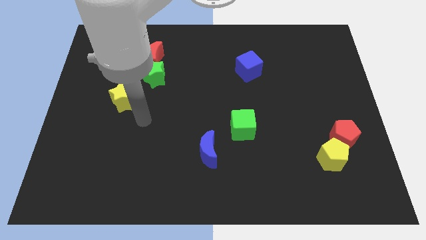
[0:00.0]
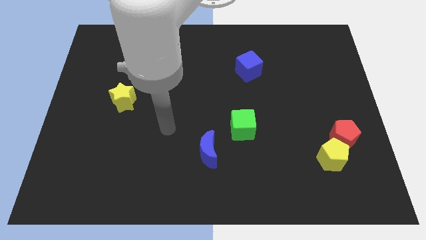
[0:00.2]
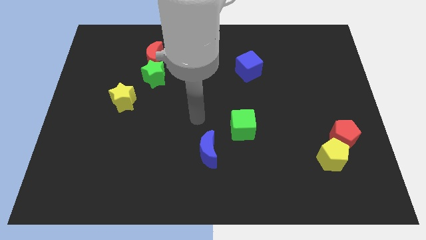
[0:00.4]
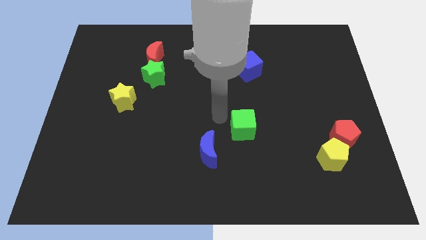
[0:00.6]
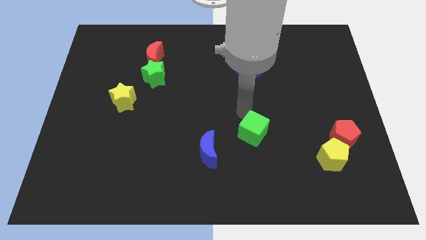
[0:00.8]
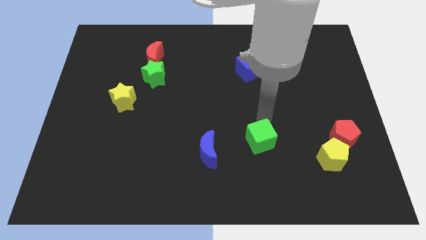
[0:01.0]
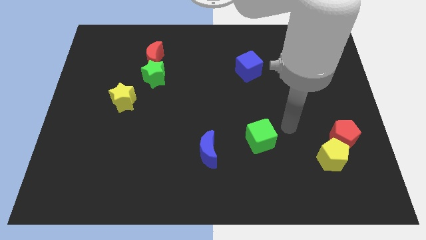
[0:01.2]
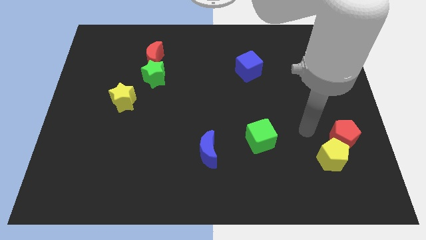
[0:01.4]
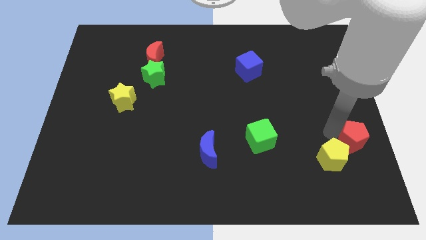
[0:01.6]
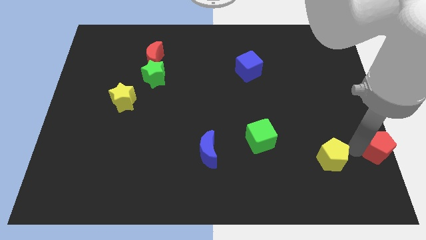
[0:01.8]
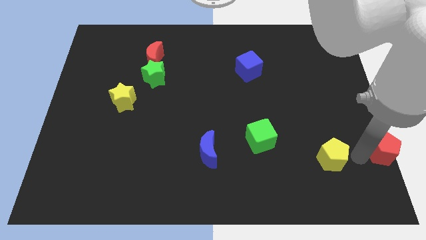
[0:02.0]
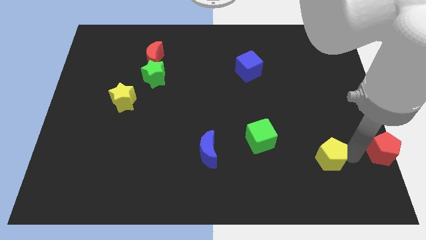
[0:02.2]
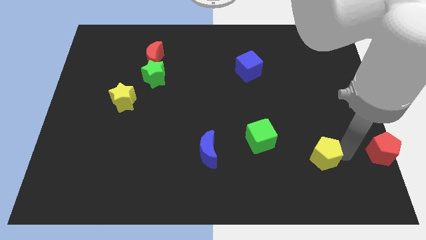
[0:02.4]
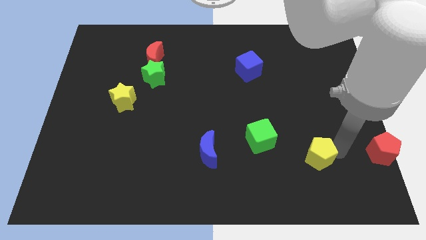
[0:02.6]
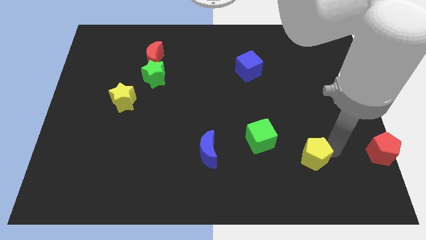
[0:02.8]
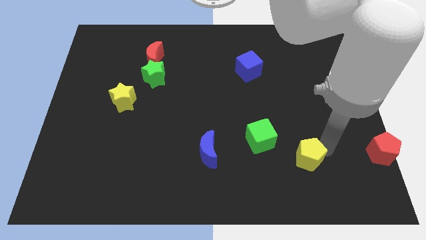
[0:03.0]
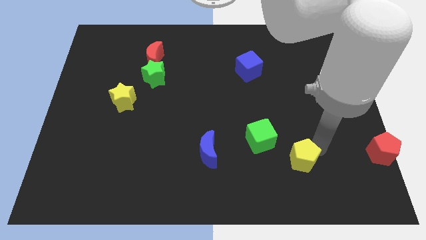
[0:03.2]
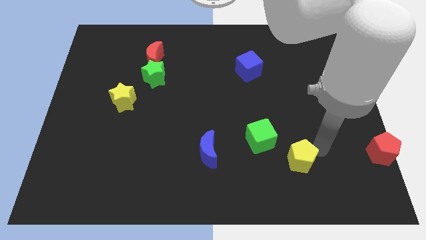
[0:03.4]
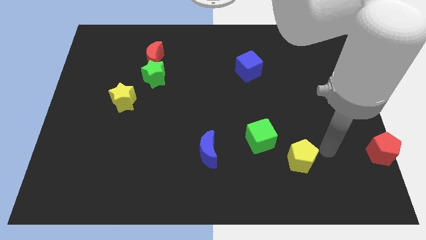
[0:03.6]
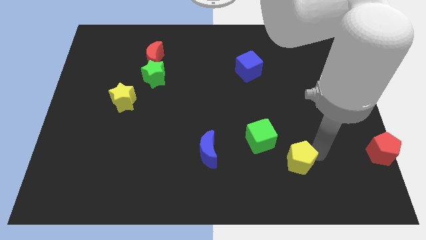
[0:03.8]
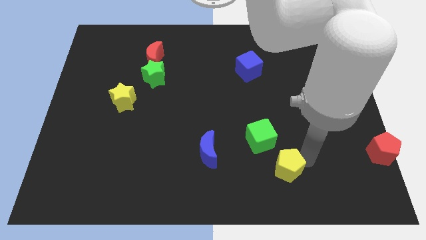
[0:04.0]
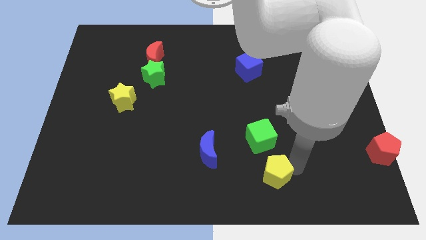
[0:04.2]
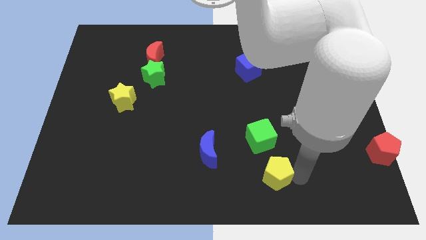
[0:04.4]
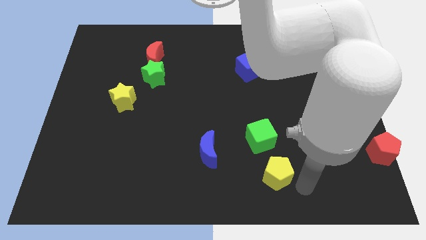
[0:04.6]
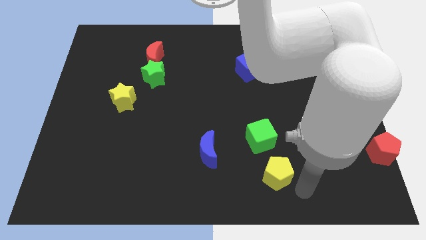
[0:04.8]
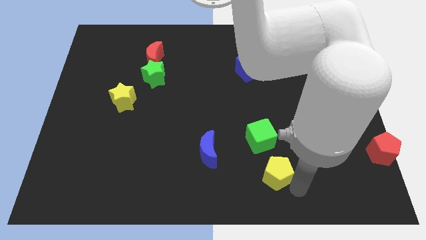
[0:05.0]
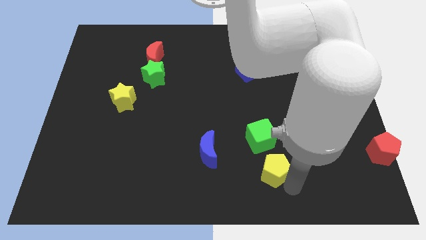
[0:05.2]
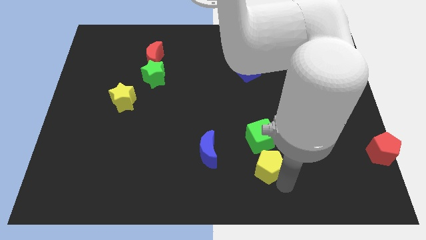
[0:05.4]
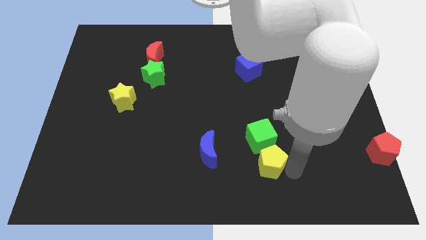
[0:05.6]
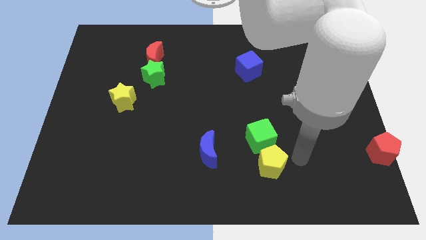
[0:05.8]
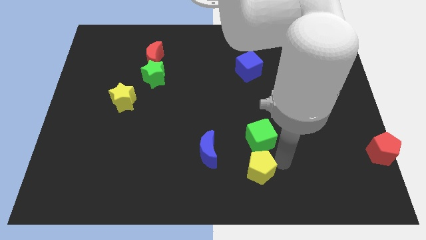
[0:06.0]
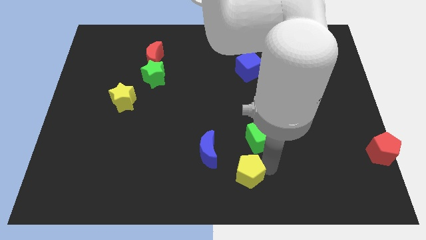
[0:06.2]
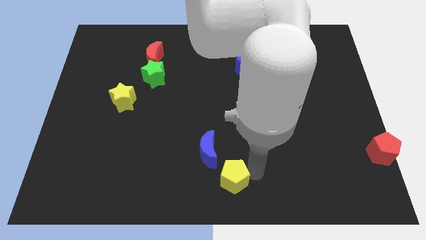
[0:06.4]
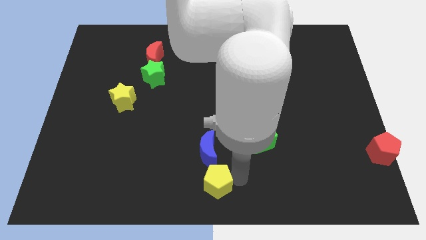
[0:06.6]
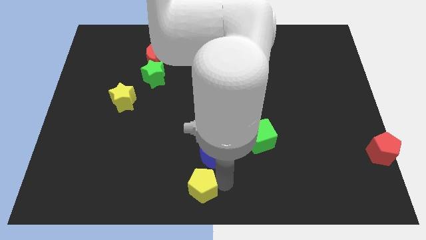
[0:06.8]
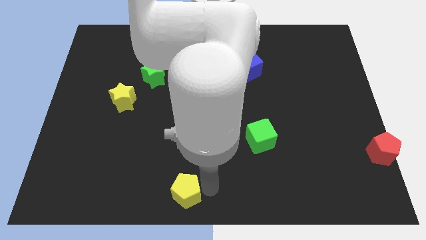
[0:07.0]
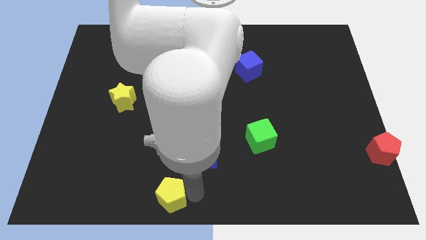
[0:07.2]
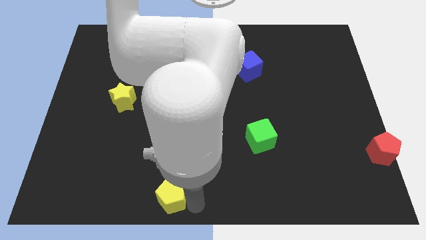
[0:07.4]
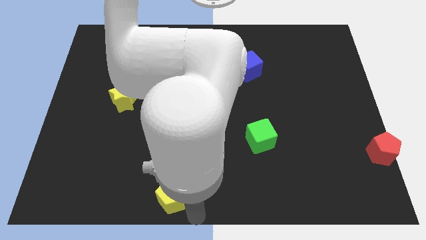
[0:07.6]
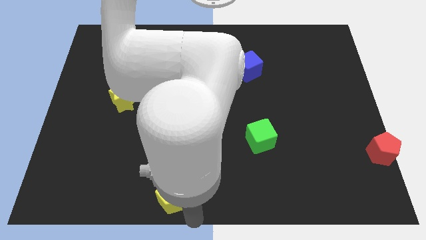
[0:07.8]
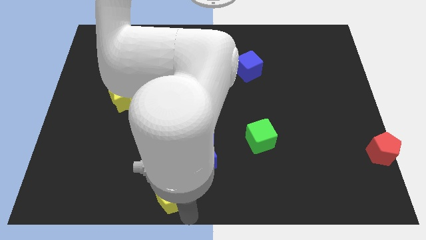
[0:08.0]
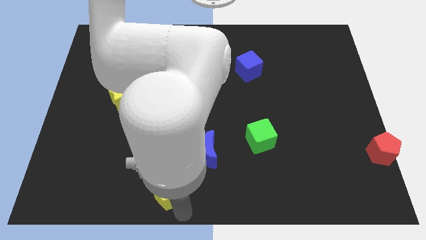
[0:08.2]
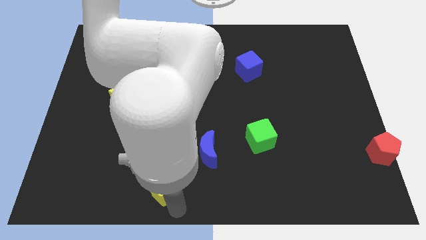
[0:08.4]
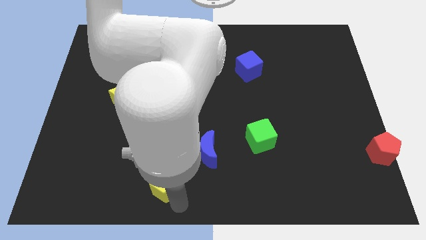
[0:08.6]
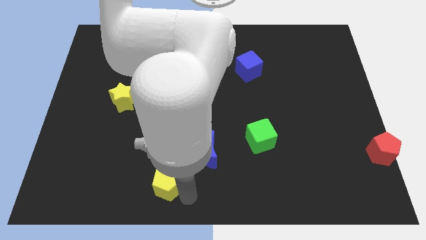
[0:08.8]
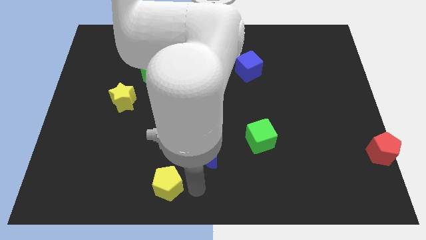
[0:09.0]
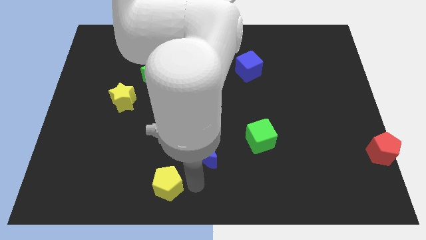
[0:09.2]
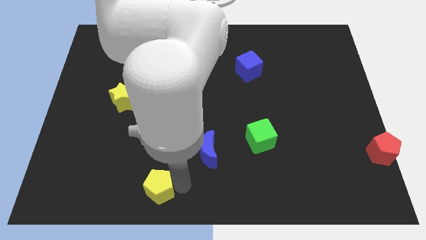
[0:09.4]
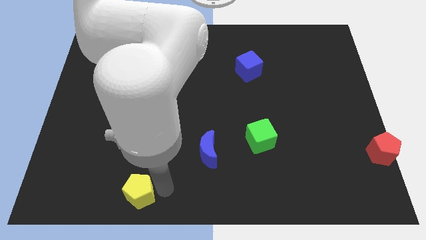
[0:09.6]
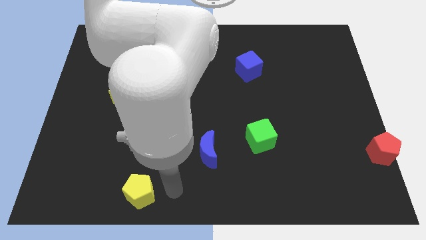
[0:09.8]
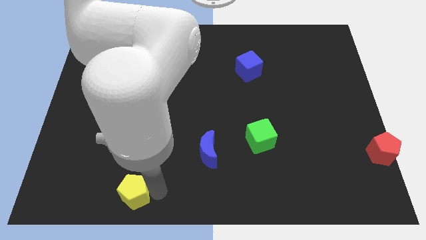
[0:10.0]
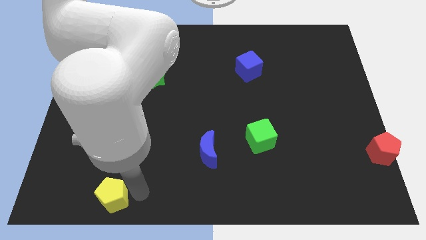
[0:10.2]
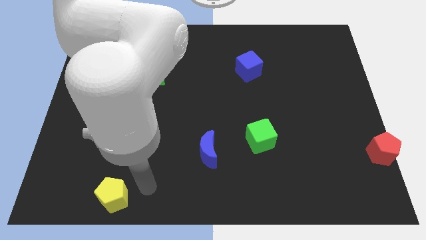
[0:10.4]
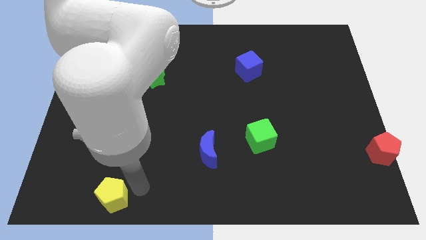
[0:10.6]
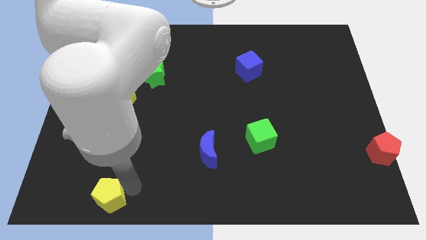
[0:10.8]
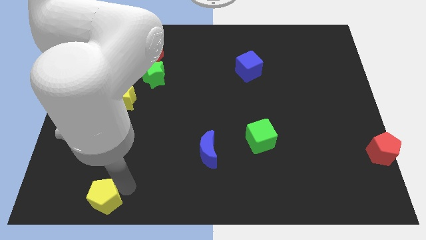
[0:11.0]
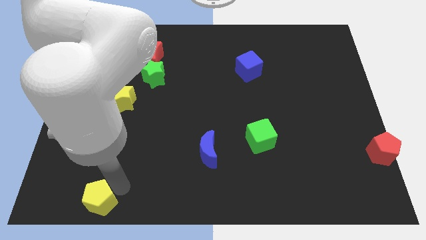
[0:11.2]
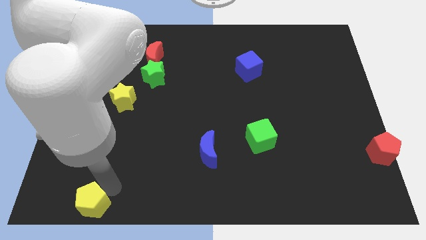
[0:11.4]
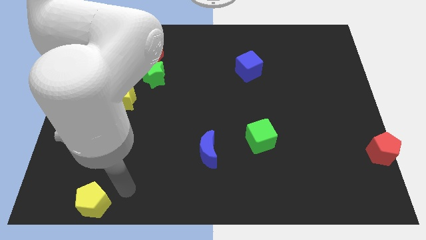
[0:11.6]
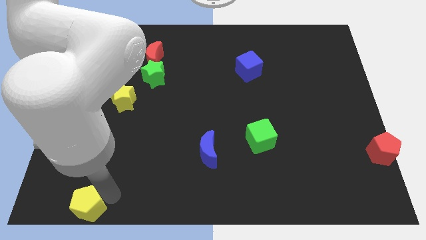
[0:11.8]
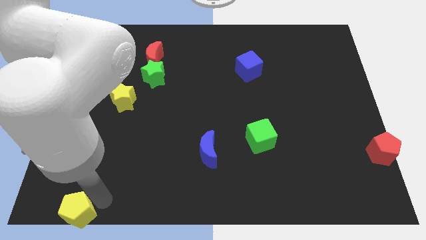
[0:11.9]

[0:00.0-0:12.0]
push the yellow pentagon to the bottom left

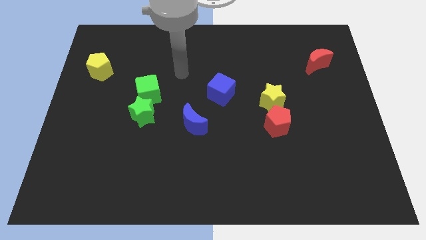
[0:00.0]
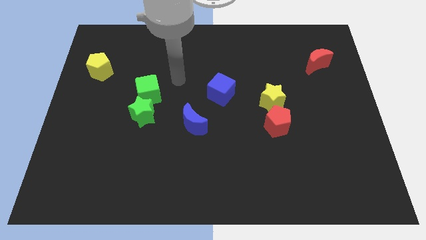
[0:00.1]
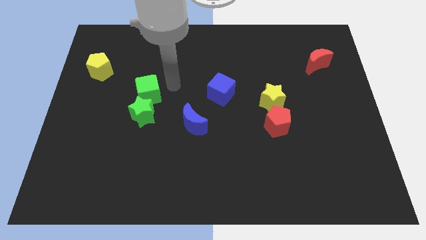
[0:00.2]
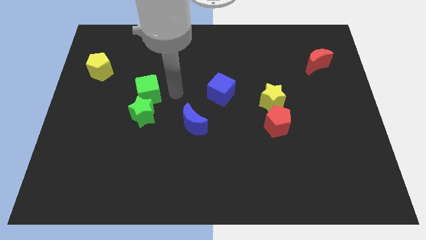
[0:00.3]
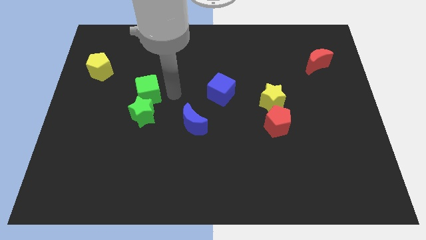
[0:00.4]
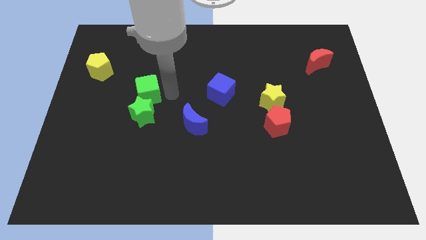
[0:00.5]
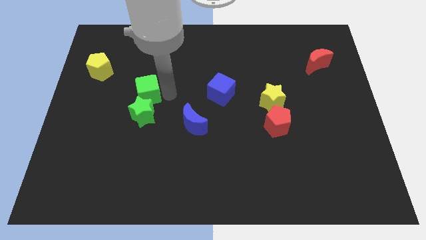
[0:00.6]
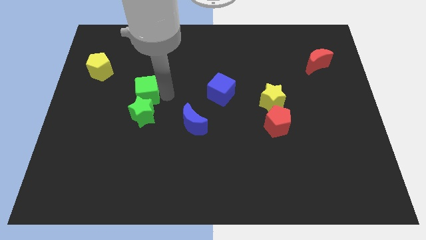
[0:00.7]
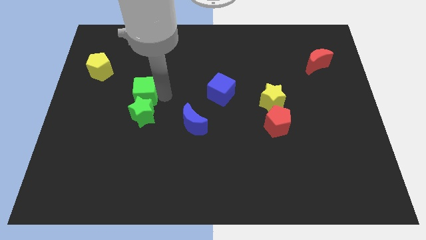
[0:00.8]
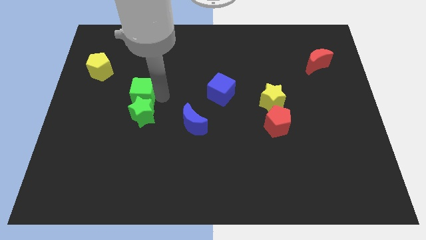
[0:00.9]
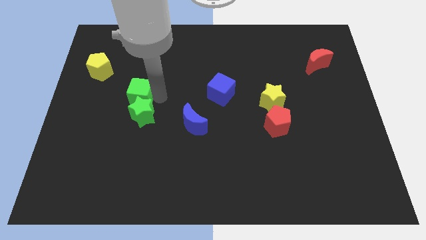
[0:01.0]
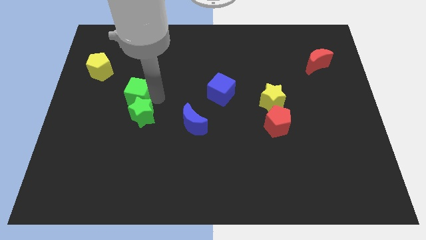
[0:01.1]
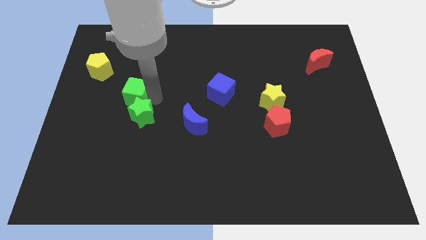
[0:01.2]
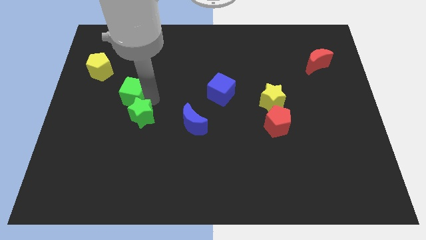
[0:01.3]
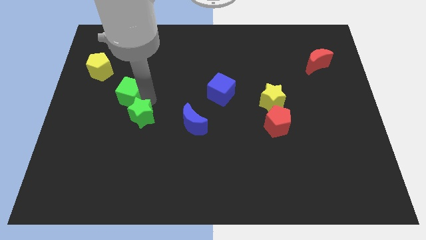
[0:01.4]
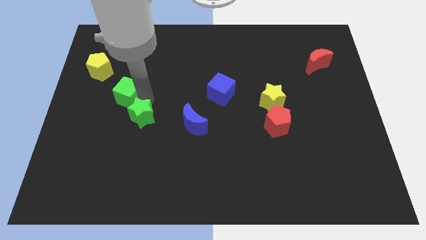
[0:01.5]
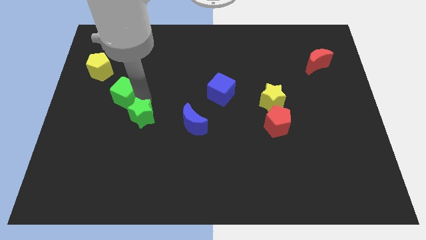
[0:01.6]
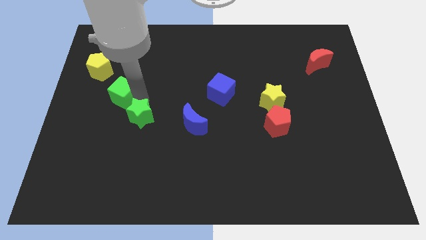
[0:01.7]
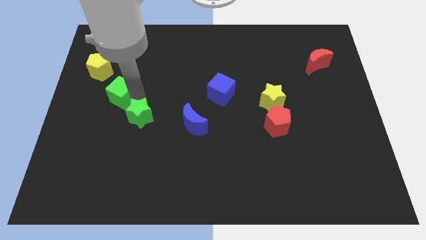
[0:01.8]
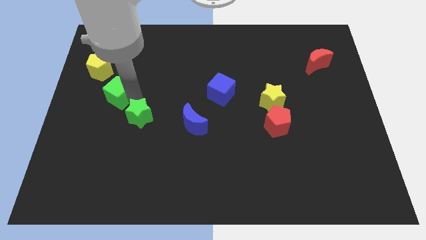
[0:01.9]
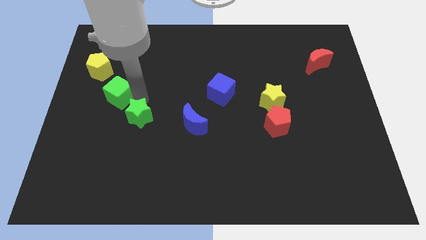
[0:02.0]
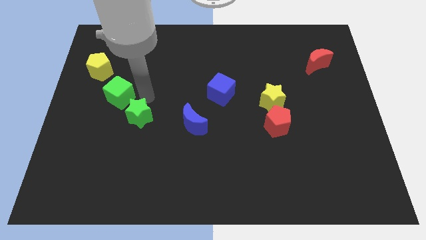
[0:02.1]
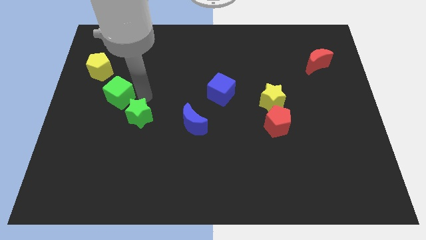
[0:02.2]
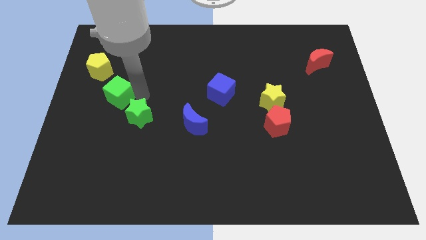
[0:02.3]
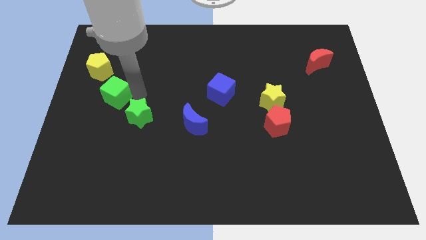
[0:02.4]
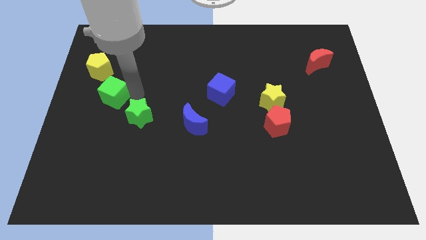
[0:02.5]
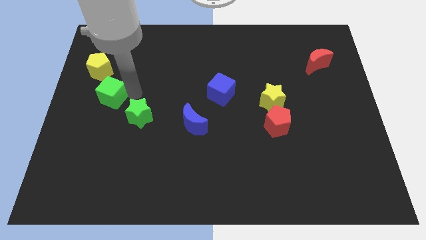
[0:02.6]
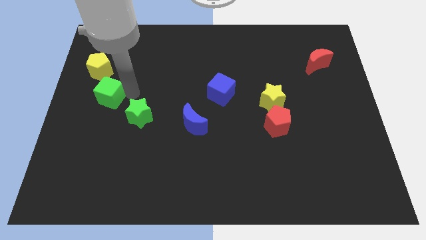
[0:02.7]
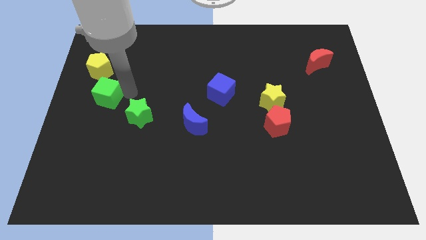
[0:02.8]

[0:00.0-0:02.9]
push the green cube to the left side
